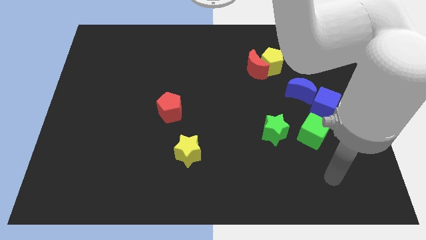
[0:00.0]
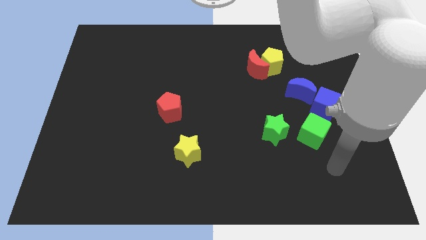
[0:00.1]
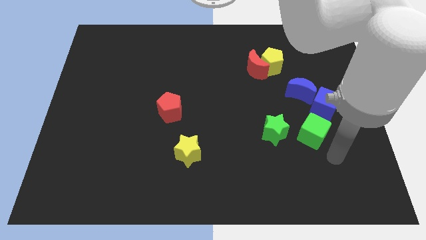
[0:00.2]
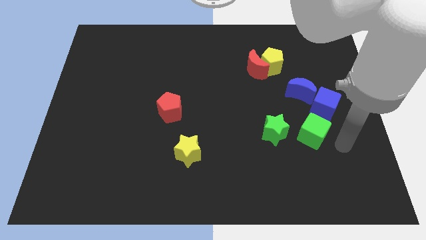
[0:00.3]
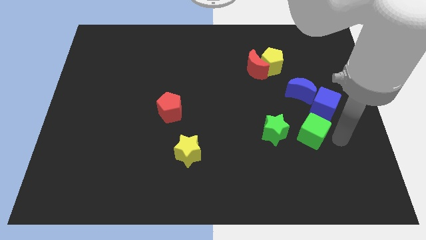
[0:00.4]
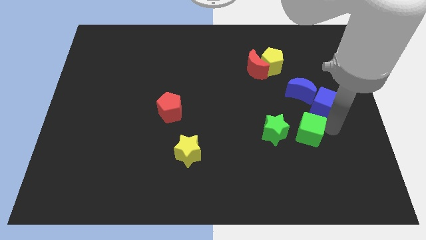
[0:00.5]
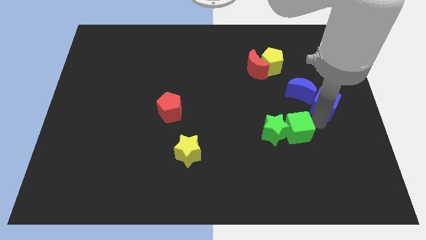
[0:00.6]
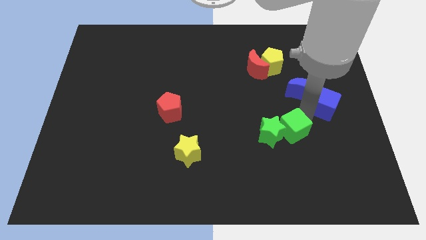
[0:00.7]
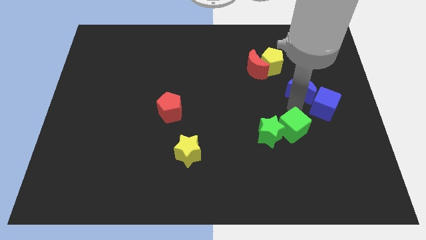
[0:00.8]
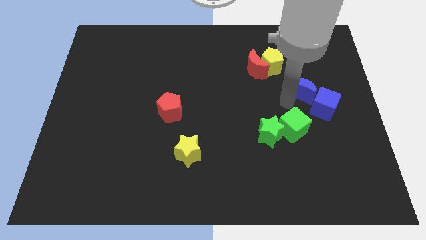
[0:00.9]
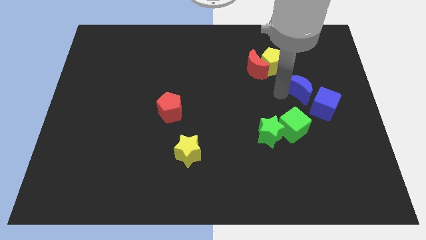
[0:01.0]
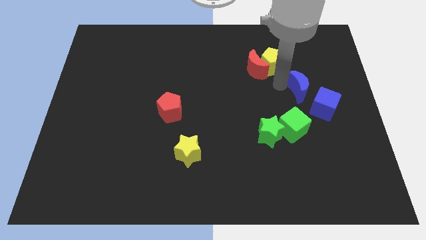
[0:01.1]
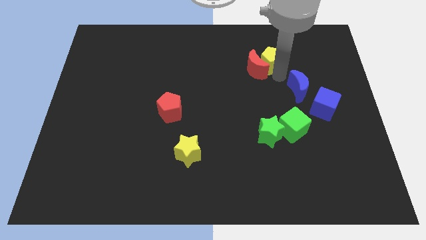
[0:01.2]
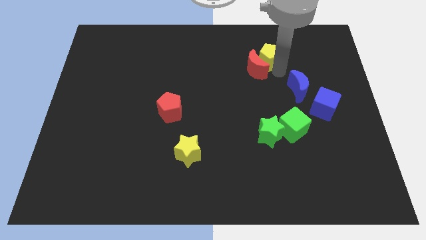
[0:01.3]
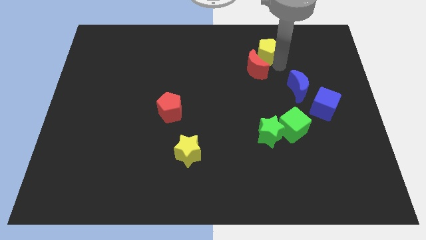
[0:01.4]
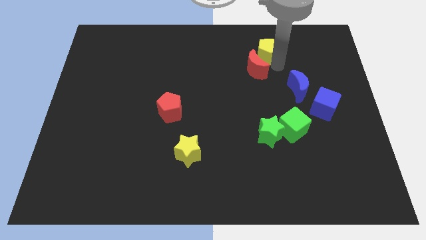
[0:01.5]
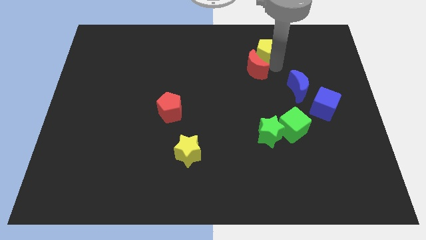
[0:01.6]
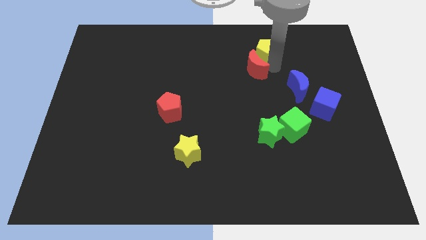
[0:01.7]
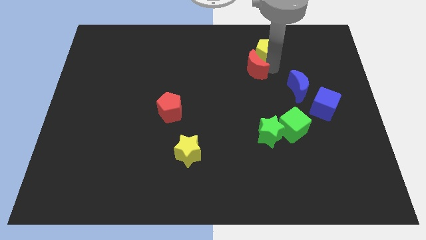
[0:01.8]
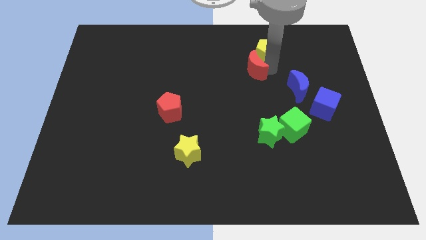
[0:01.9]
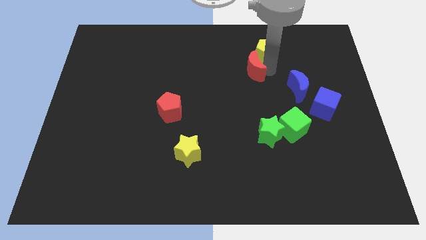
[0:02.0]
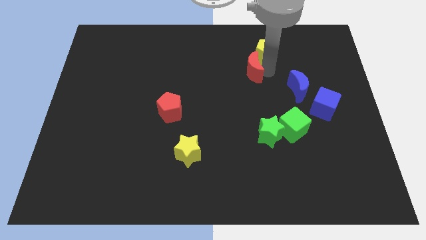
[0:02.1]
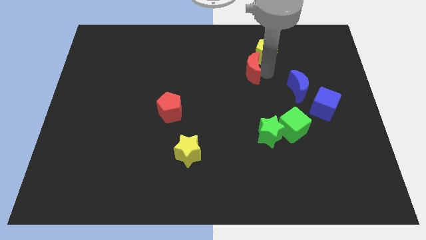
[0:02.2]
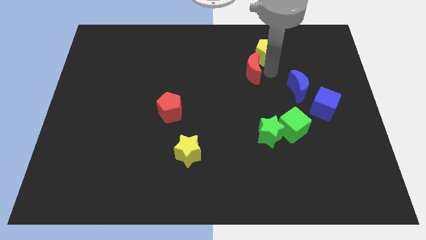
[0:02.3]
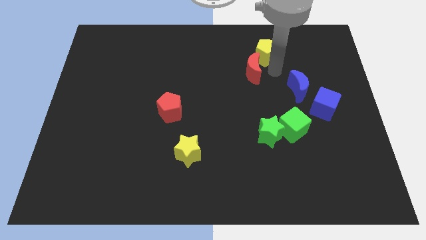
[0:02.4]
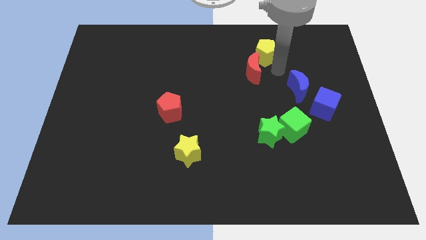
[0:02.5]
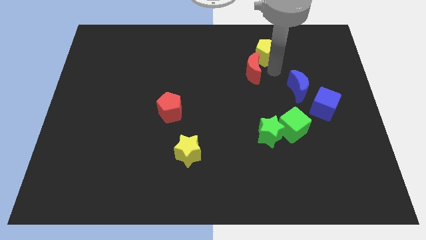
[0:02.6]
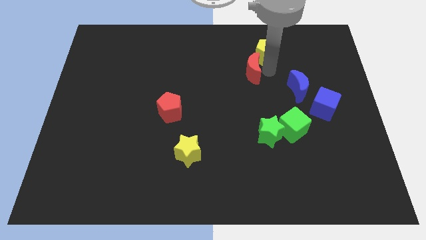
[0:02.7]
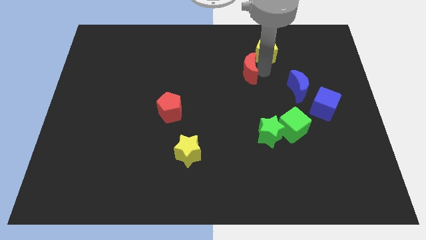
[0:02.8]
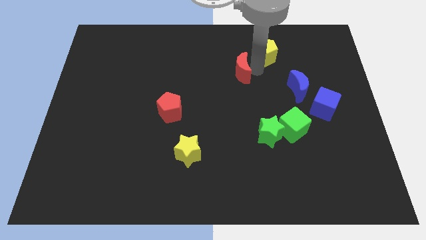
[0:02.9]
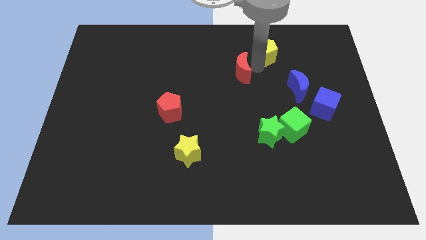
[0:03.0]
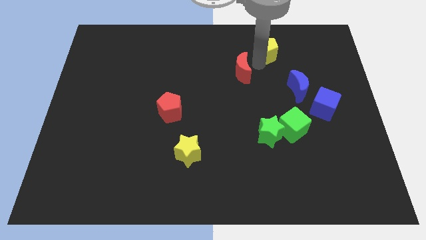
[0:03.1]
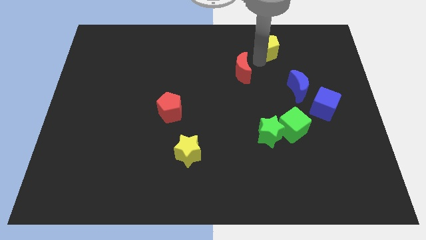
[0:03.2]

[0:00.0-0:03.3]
separate the red moon from the yellow pentagon

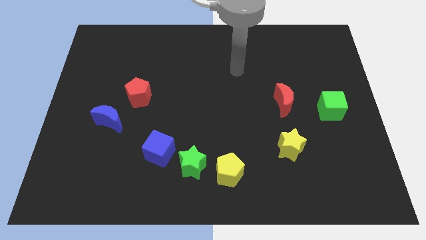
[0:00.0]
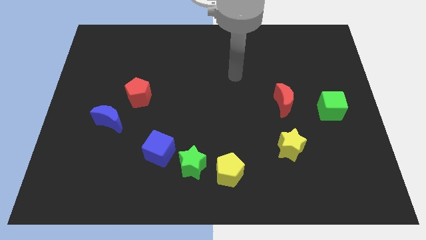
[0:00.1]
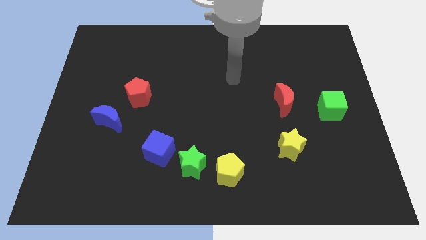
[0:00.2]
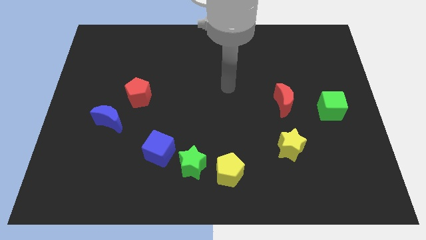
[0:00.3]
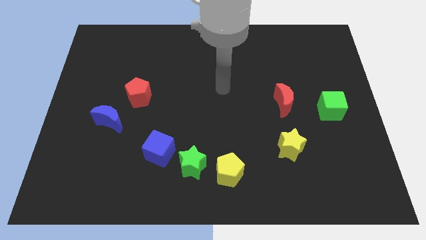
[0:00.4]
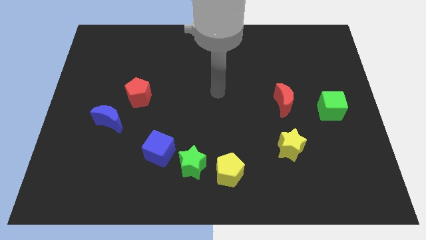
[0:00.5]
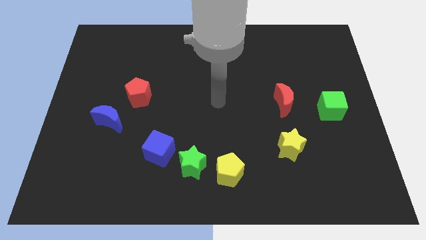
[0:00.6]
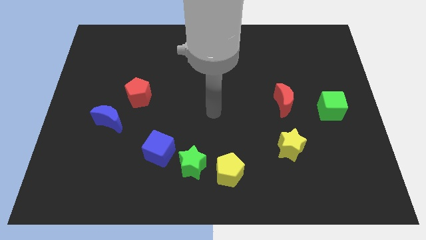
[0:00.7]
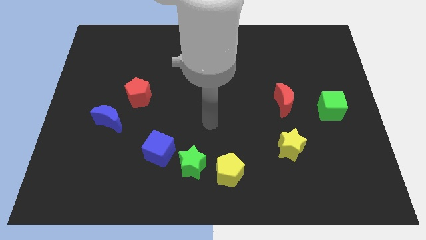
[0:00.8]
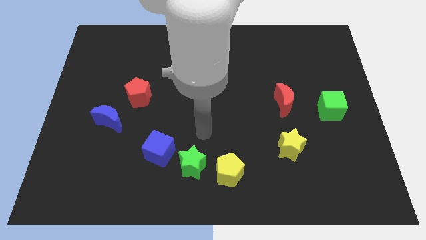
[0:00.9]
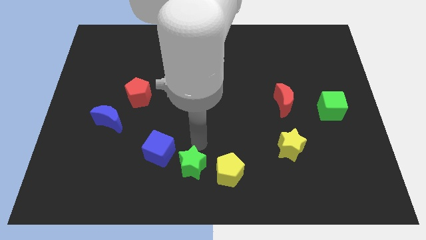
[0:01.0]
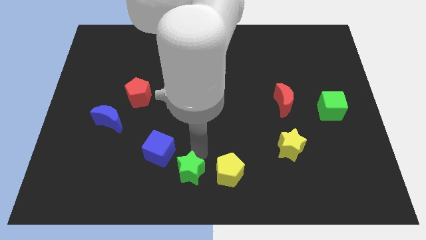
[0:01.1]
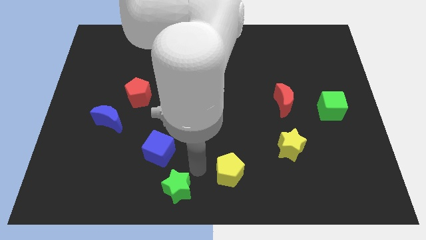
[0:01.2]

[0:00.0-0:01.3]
separate the yellow pentagon from the green star

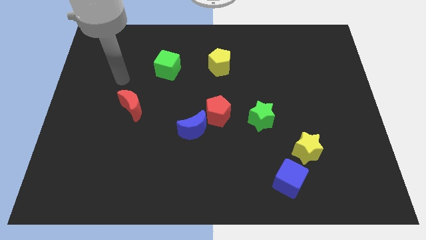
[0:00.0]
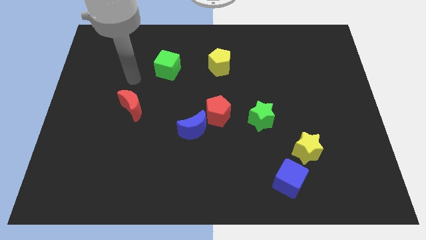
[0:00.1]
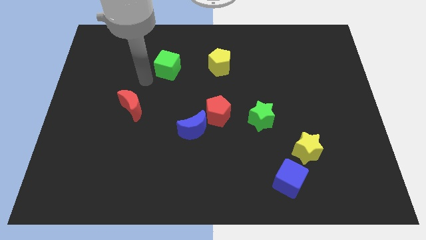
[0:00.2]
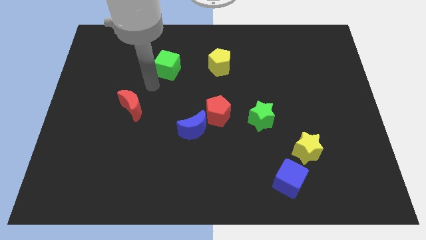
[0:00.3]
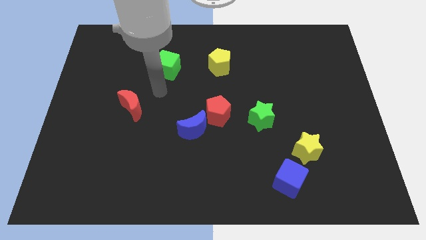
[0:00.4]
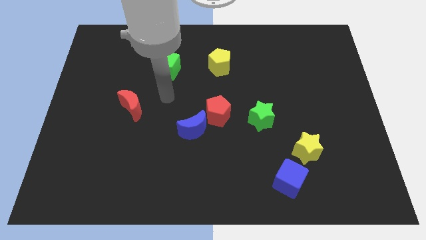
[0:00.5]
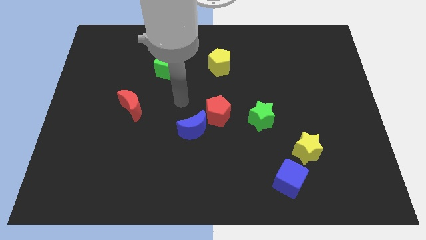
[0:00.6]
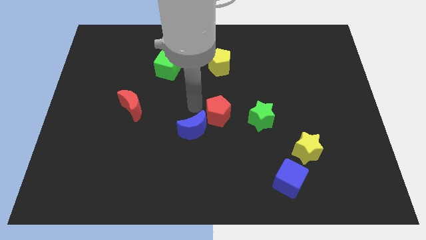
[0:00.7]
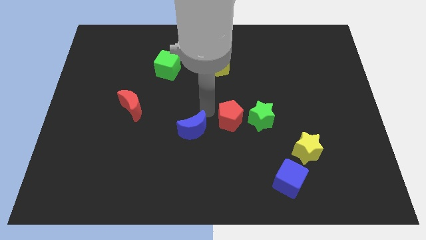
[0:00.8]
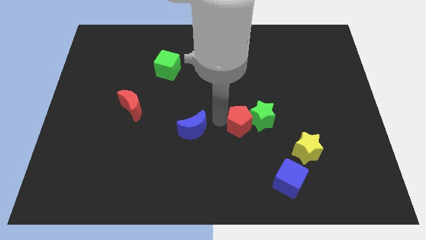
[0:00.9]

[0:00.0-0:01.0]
pull the blue moon apart from the red pentagon

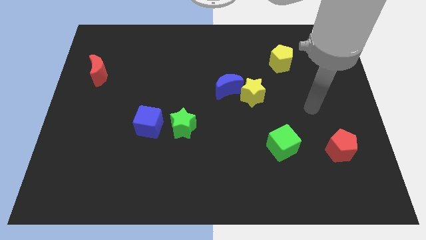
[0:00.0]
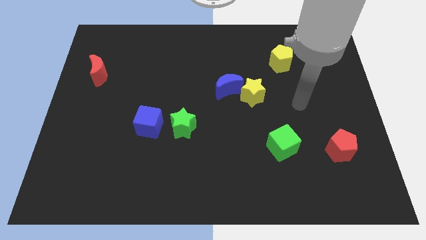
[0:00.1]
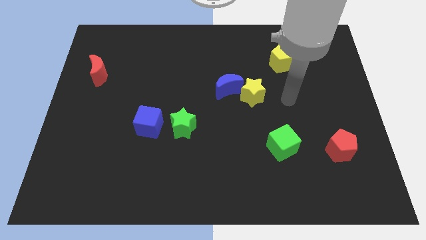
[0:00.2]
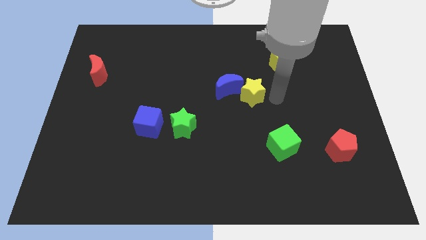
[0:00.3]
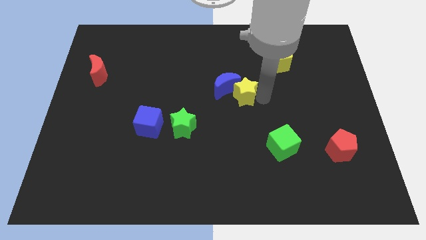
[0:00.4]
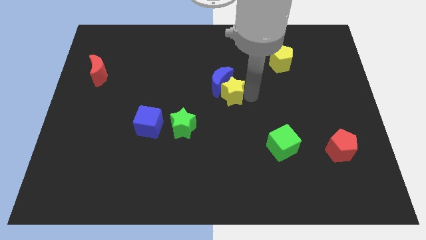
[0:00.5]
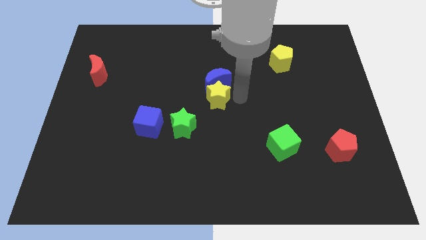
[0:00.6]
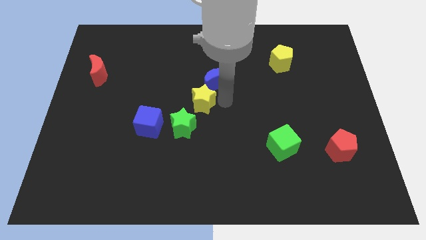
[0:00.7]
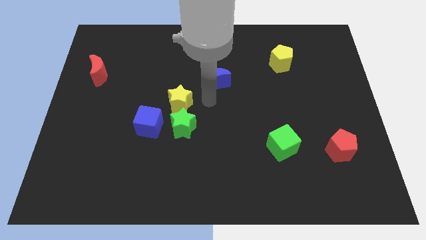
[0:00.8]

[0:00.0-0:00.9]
move the blue moon away from the yellow star

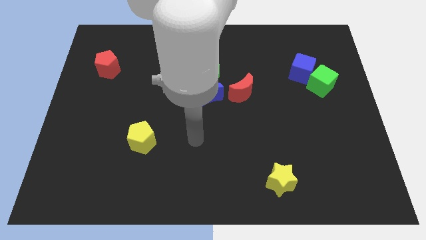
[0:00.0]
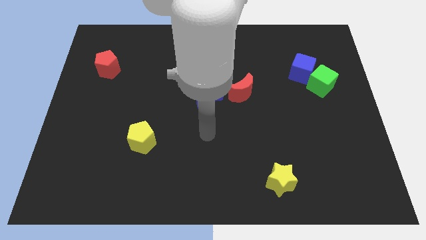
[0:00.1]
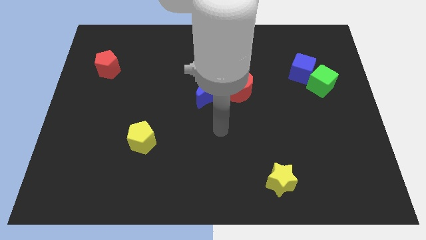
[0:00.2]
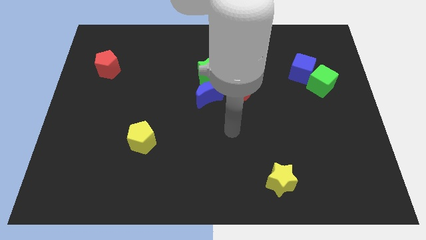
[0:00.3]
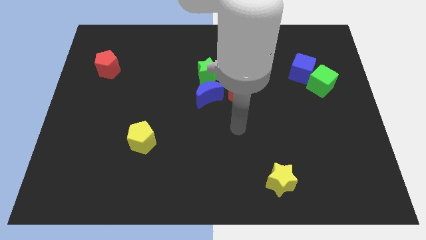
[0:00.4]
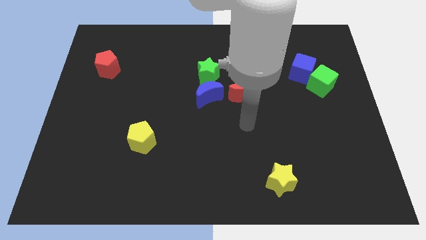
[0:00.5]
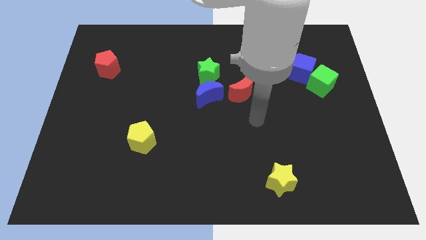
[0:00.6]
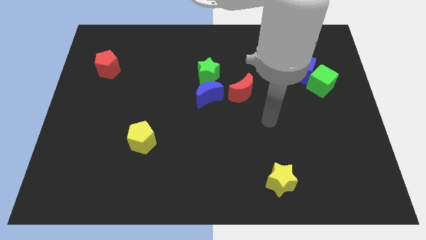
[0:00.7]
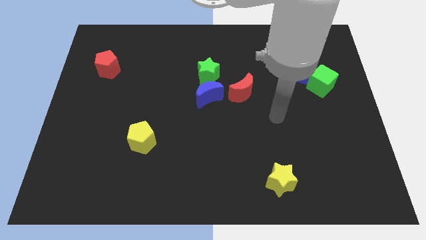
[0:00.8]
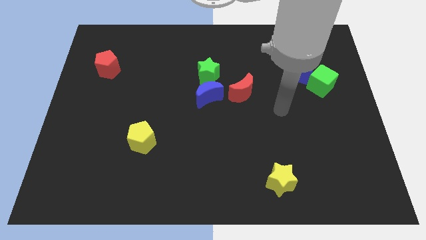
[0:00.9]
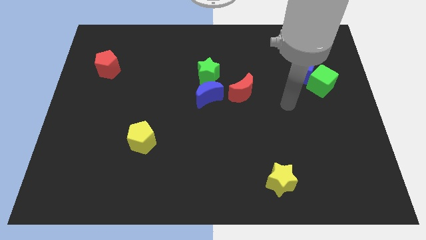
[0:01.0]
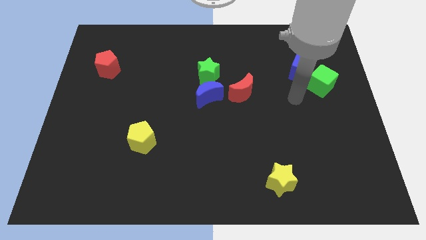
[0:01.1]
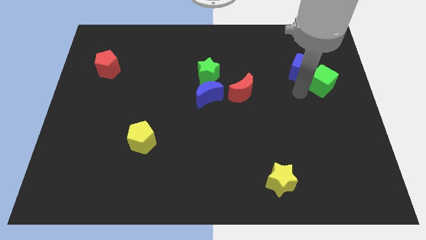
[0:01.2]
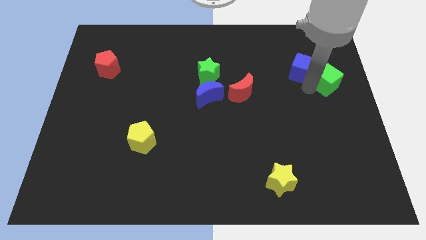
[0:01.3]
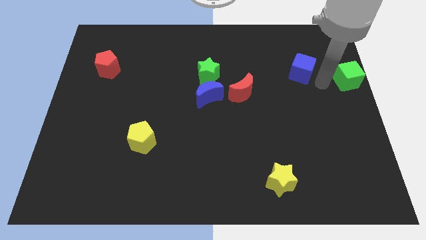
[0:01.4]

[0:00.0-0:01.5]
pull the blue cube apart from the green cube

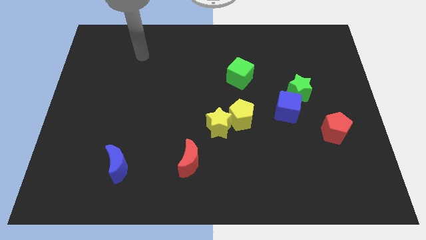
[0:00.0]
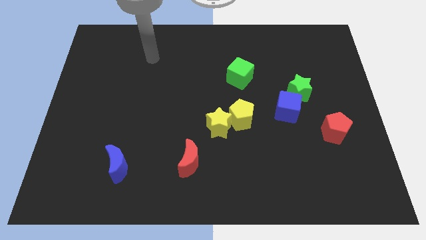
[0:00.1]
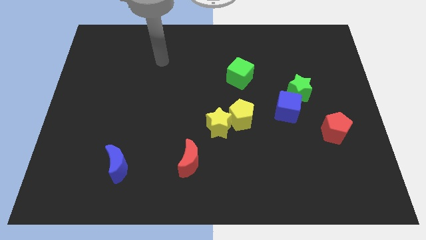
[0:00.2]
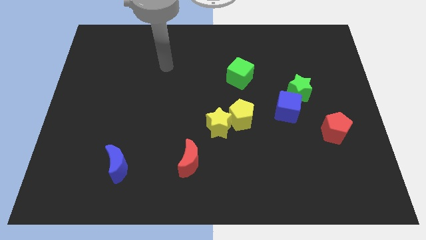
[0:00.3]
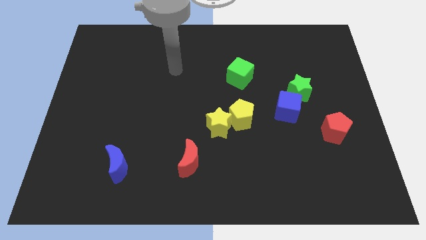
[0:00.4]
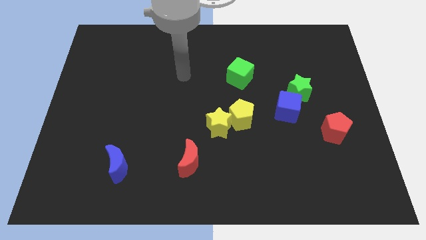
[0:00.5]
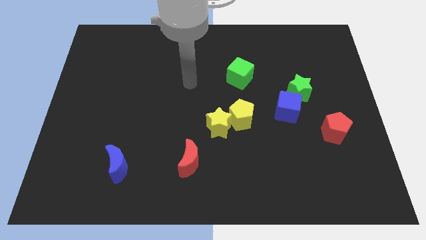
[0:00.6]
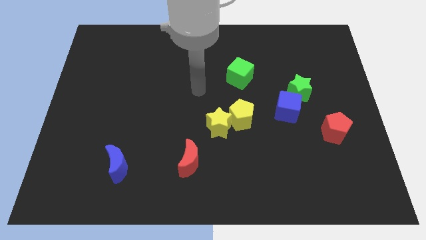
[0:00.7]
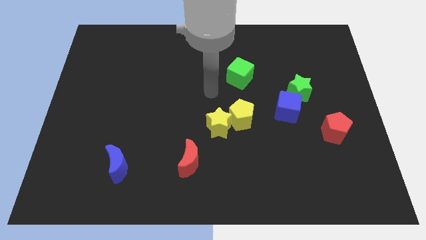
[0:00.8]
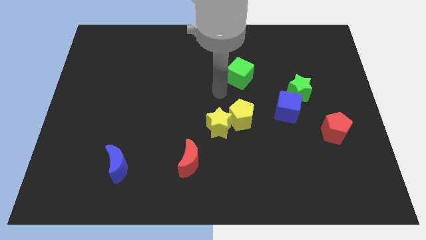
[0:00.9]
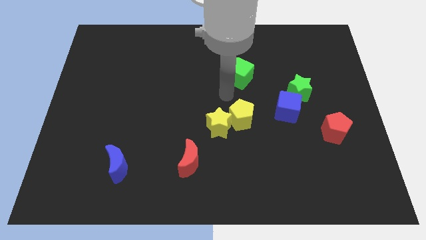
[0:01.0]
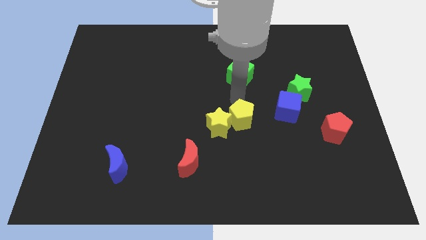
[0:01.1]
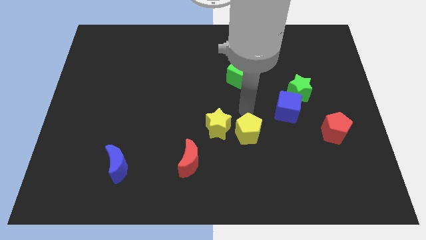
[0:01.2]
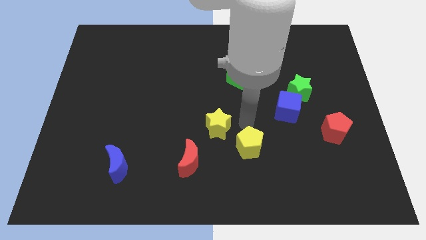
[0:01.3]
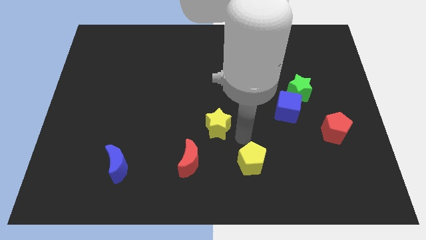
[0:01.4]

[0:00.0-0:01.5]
move the yellow star away from the yellow pentagon
